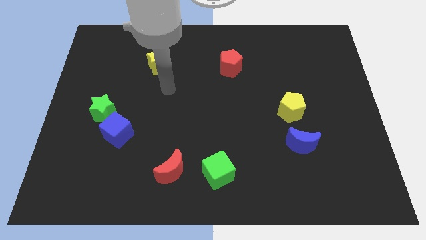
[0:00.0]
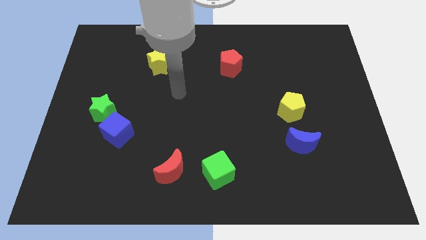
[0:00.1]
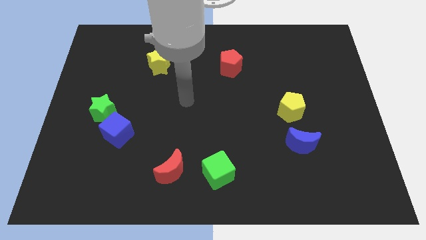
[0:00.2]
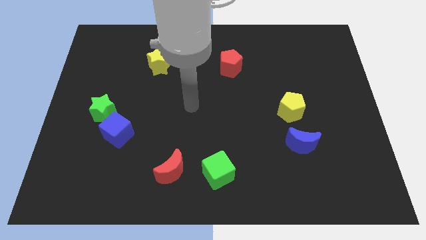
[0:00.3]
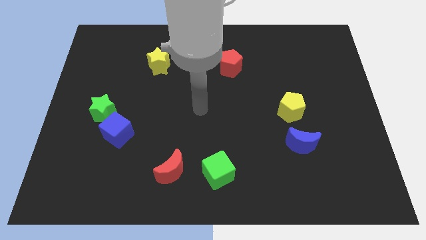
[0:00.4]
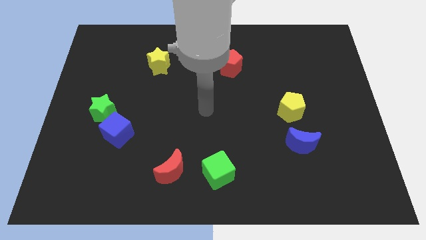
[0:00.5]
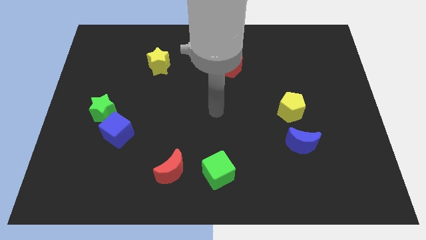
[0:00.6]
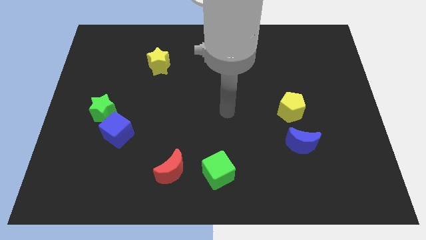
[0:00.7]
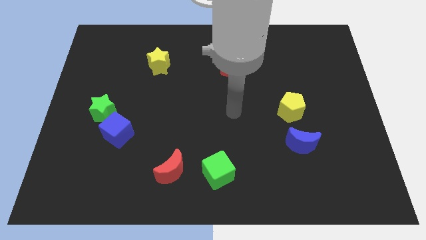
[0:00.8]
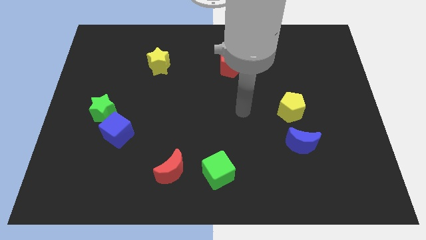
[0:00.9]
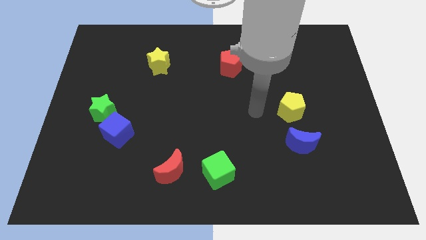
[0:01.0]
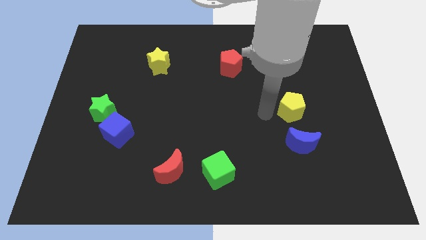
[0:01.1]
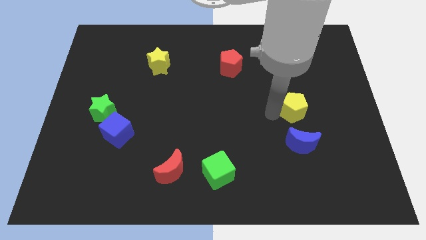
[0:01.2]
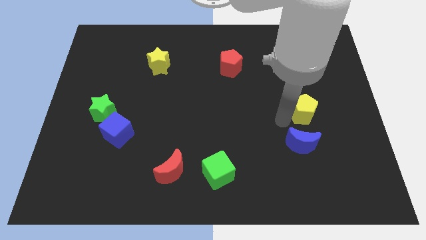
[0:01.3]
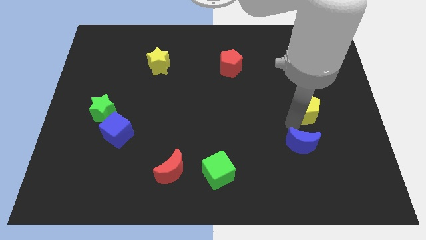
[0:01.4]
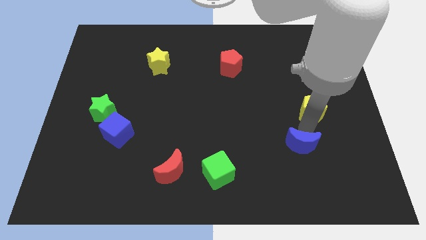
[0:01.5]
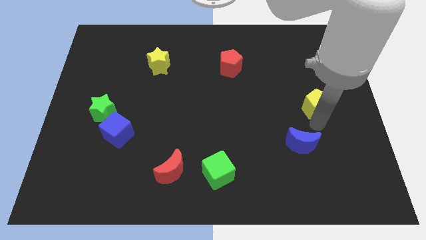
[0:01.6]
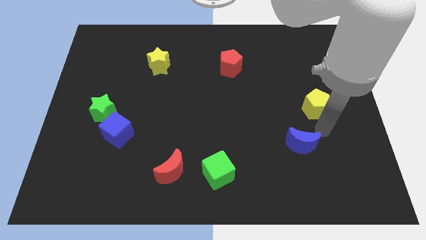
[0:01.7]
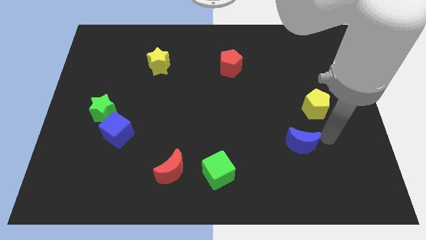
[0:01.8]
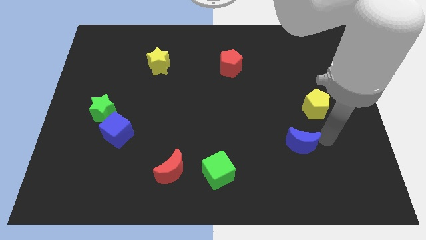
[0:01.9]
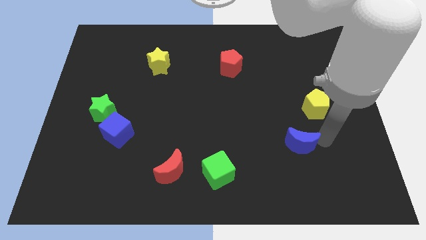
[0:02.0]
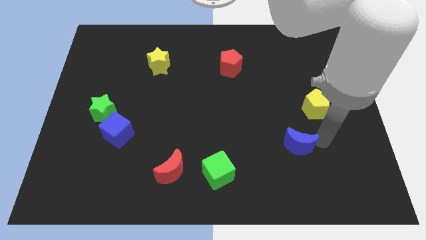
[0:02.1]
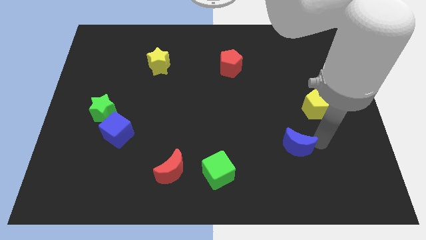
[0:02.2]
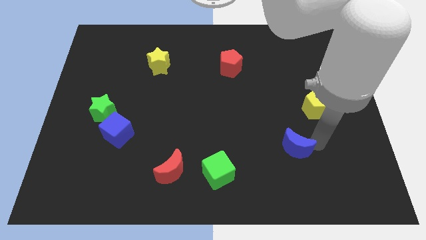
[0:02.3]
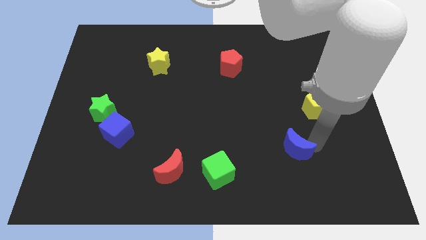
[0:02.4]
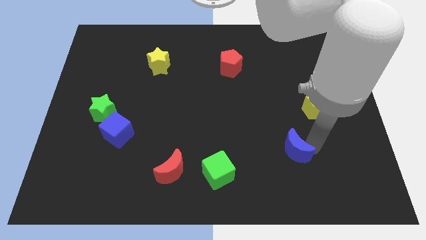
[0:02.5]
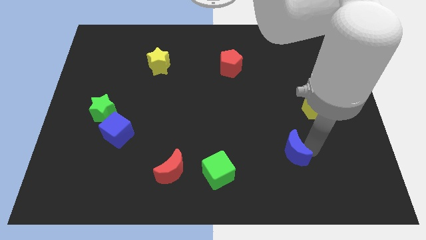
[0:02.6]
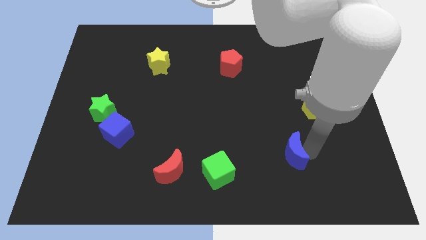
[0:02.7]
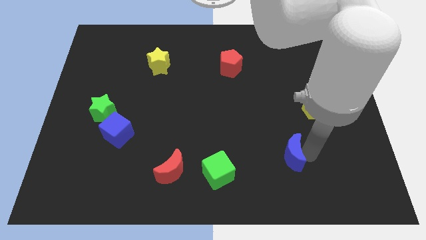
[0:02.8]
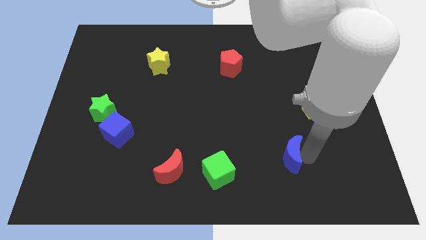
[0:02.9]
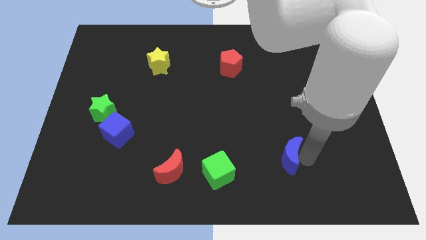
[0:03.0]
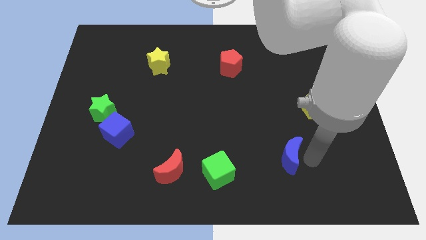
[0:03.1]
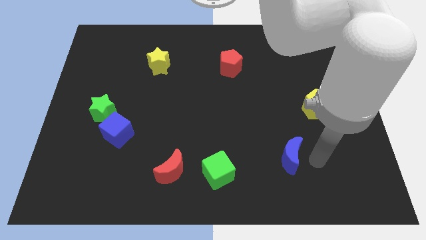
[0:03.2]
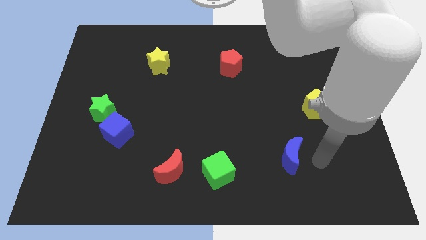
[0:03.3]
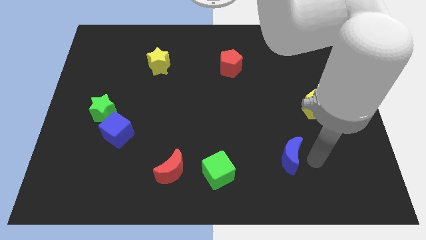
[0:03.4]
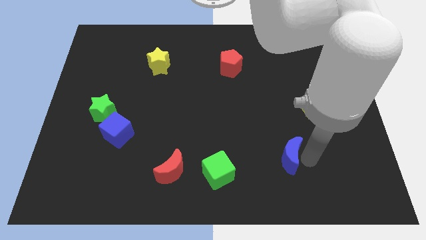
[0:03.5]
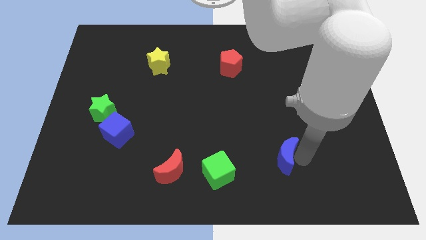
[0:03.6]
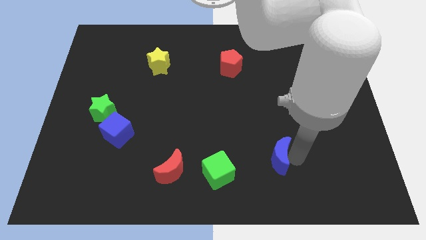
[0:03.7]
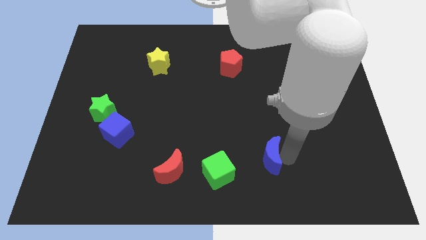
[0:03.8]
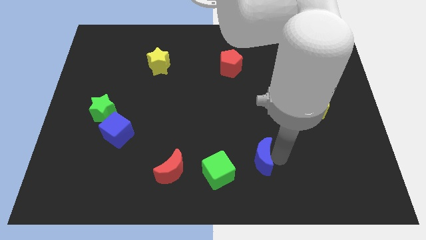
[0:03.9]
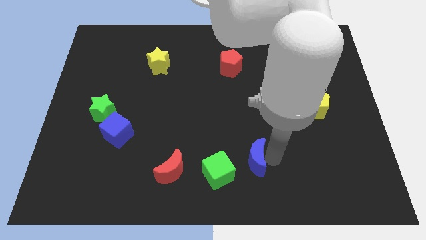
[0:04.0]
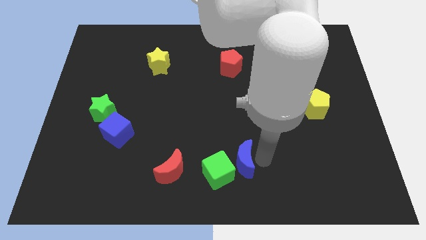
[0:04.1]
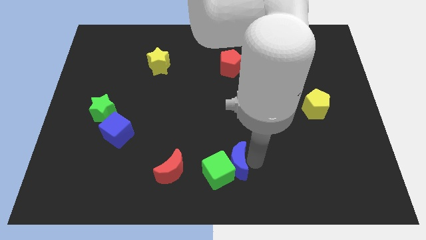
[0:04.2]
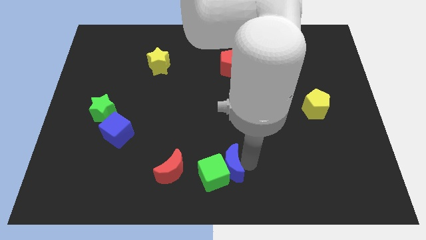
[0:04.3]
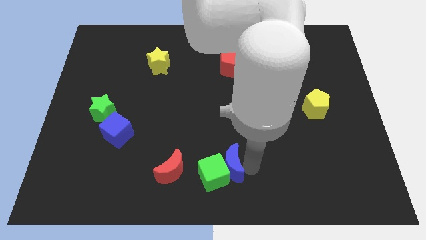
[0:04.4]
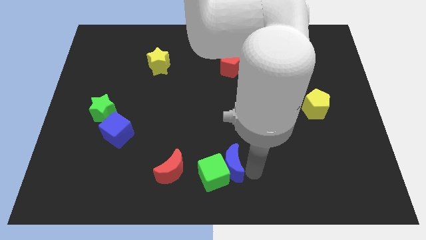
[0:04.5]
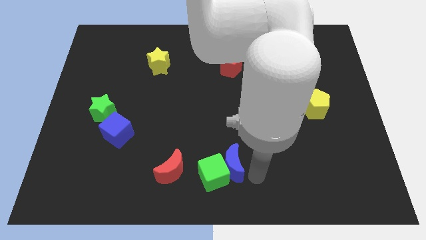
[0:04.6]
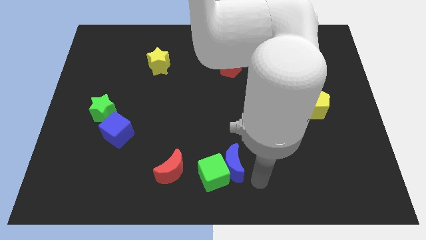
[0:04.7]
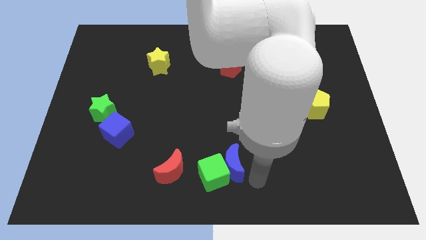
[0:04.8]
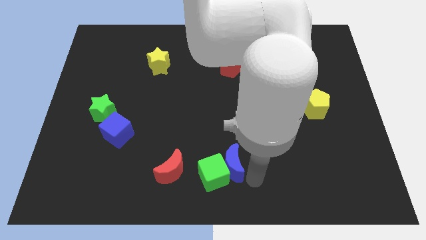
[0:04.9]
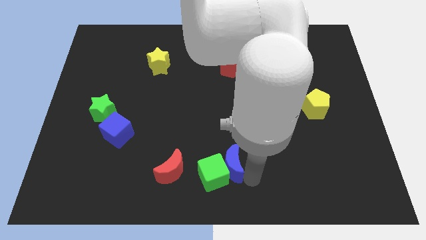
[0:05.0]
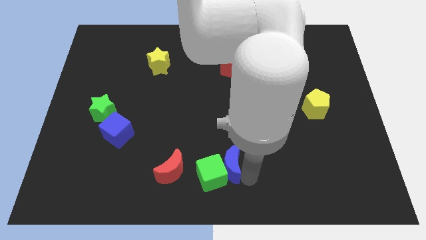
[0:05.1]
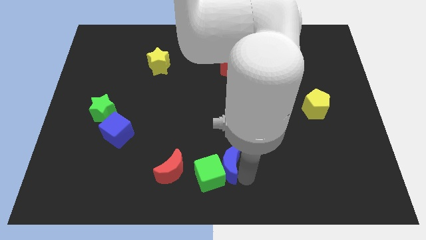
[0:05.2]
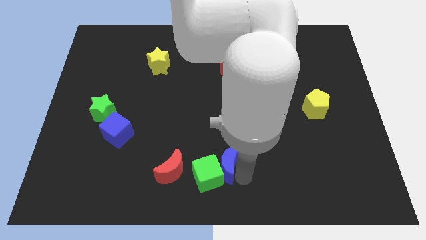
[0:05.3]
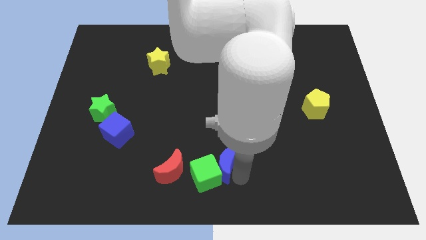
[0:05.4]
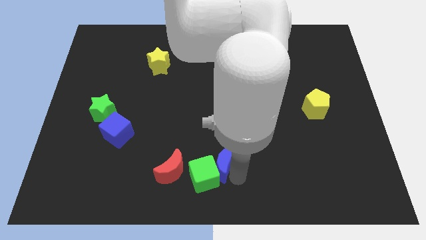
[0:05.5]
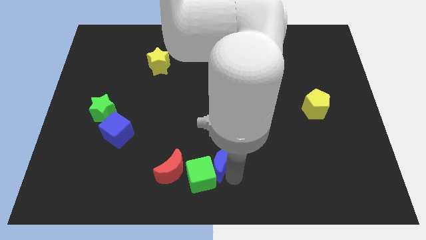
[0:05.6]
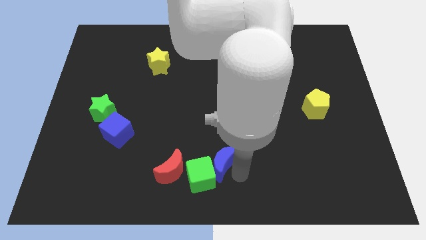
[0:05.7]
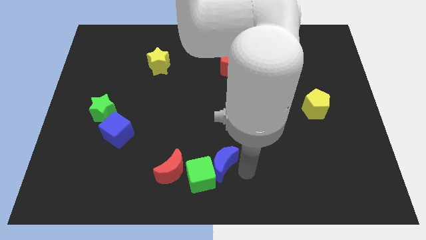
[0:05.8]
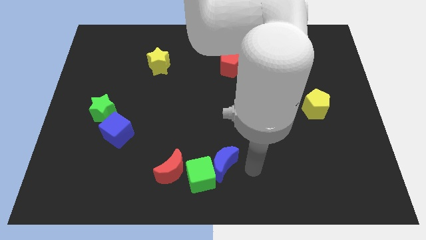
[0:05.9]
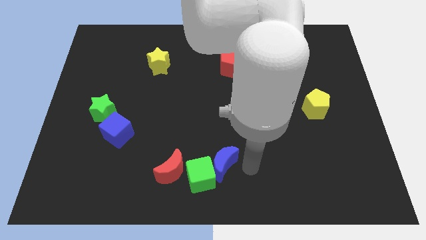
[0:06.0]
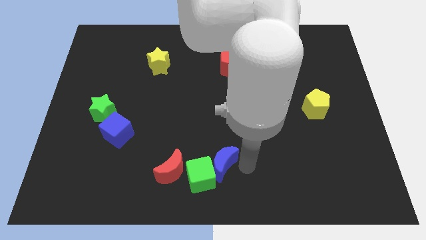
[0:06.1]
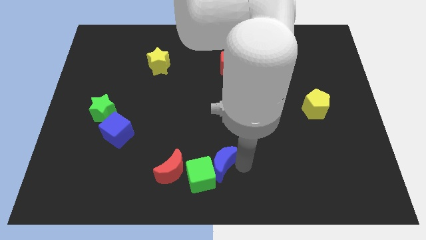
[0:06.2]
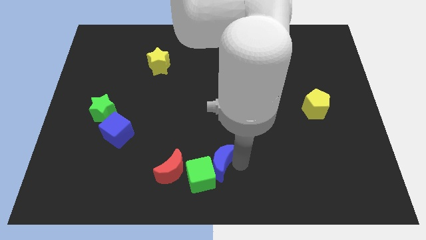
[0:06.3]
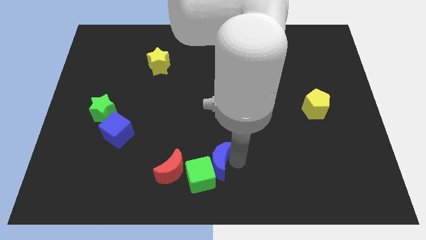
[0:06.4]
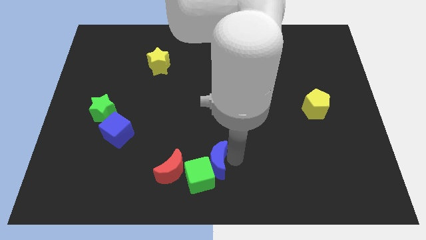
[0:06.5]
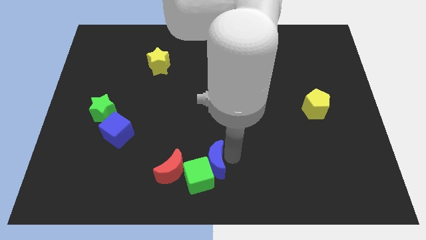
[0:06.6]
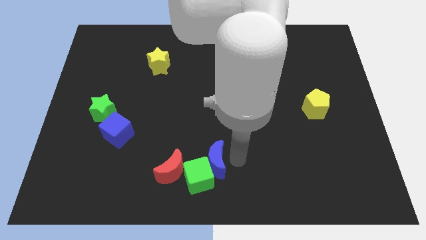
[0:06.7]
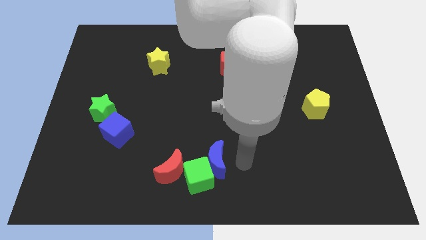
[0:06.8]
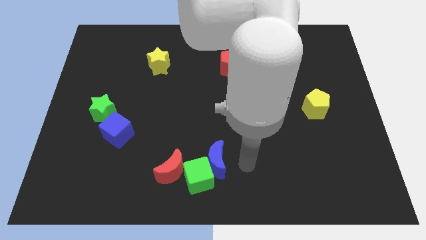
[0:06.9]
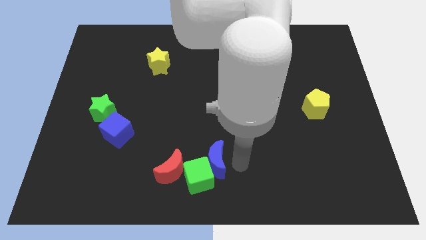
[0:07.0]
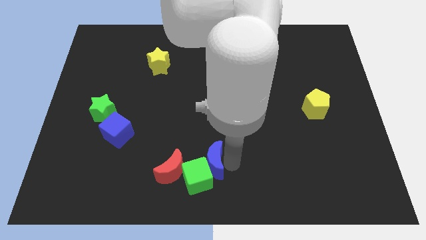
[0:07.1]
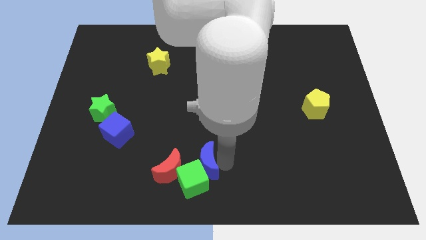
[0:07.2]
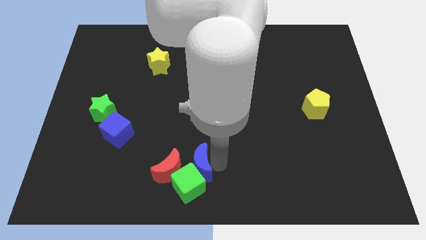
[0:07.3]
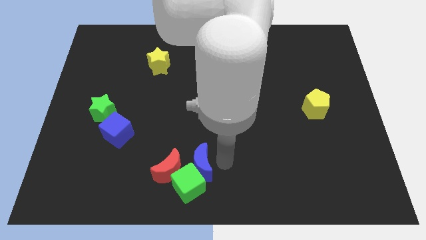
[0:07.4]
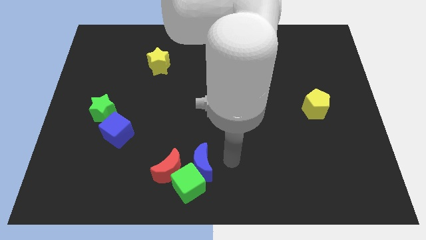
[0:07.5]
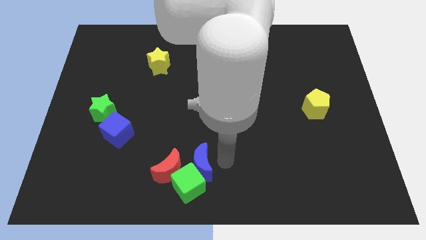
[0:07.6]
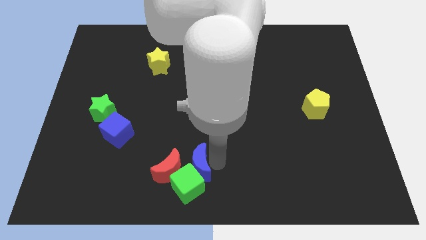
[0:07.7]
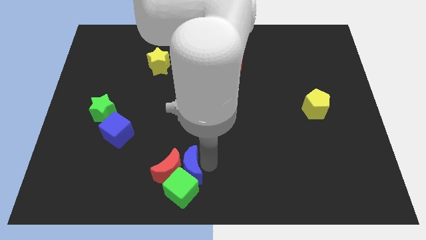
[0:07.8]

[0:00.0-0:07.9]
move the blue moon towards the red moon

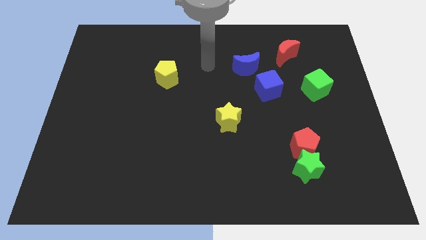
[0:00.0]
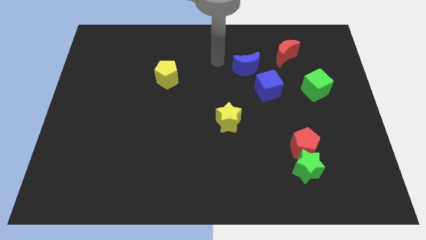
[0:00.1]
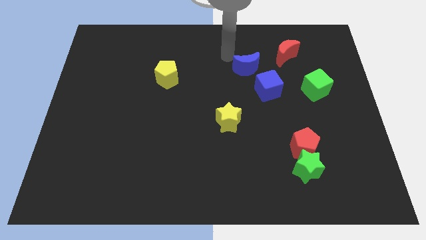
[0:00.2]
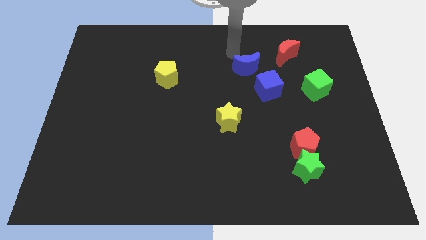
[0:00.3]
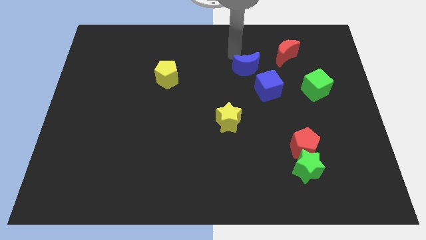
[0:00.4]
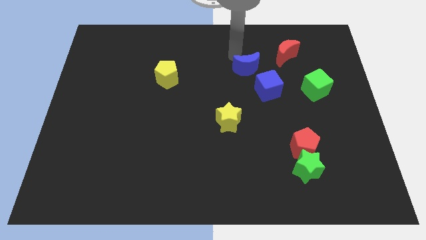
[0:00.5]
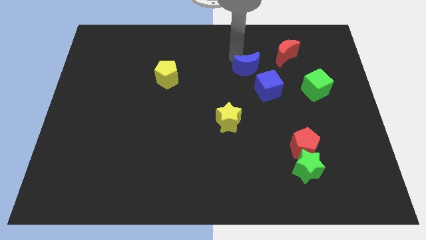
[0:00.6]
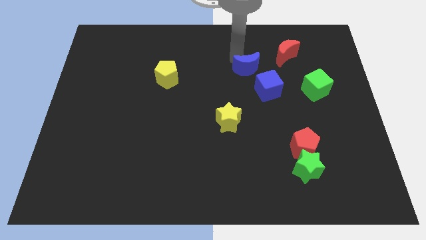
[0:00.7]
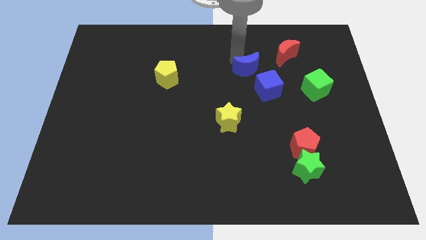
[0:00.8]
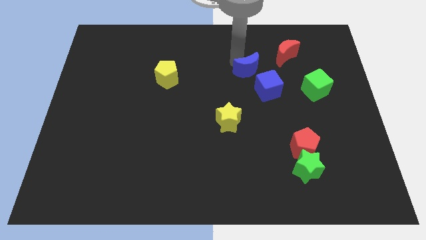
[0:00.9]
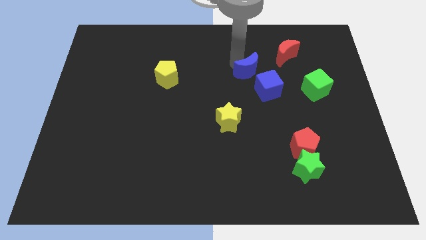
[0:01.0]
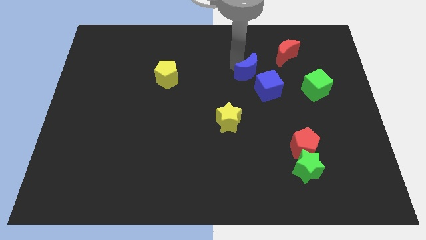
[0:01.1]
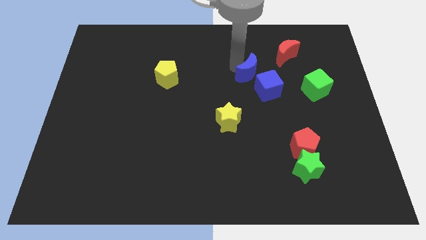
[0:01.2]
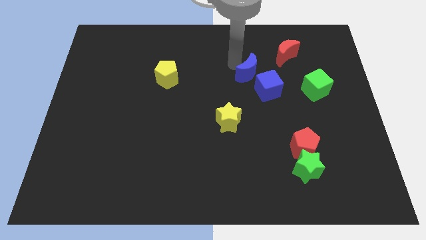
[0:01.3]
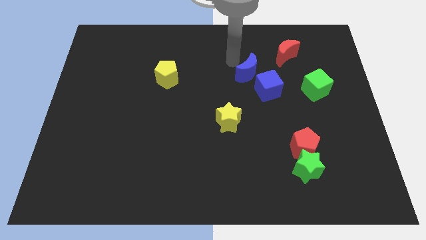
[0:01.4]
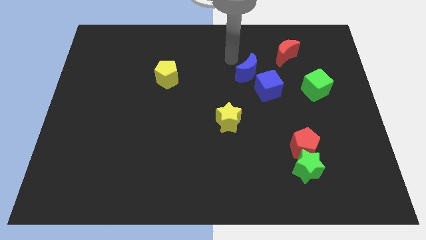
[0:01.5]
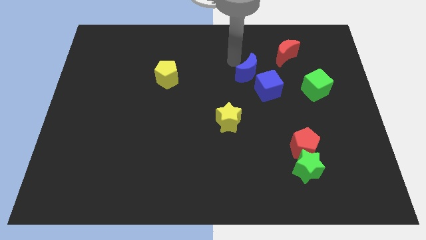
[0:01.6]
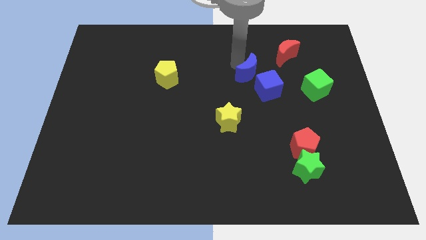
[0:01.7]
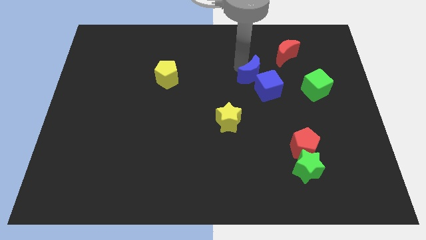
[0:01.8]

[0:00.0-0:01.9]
move the blue moon close to the blue cube
